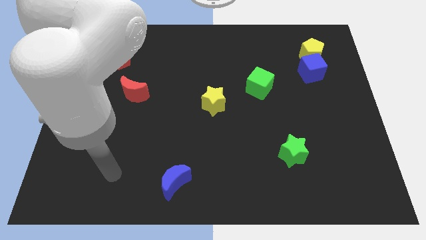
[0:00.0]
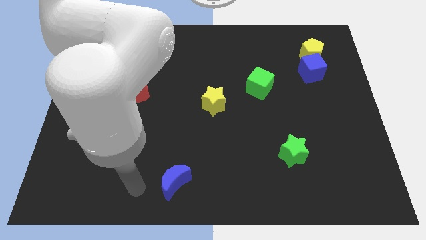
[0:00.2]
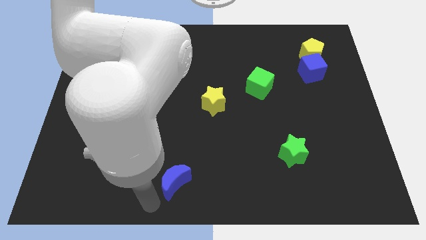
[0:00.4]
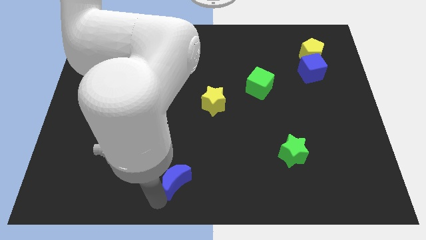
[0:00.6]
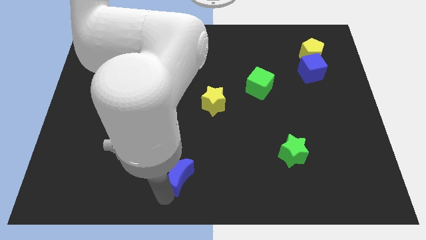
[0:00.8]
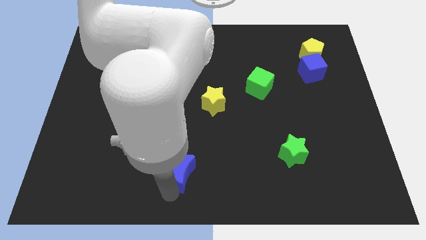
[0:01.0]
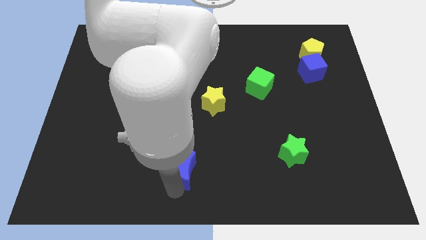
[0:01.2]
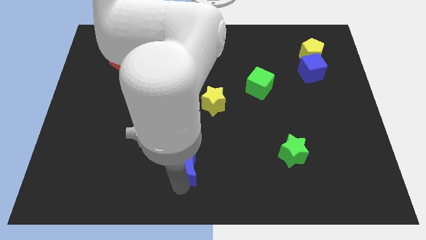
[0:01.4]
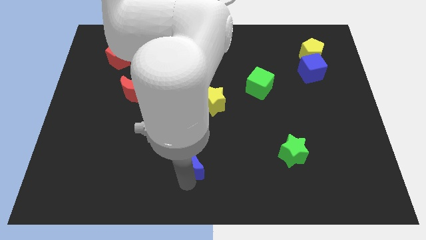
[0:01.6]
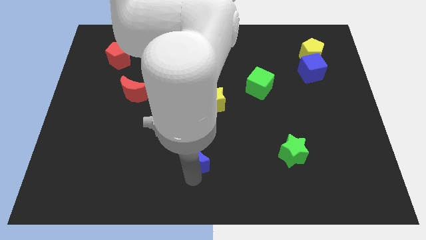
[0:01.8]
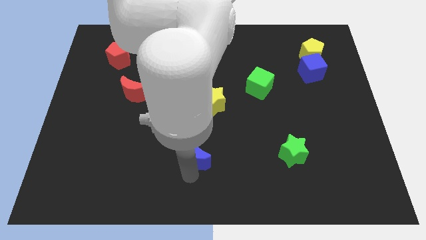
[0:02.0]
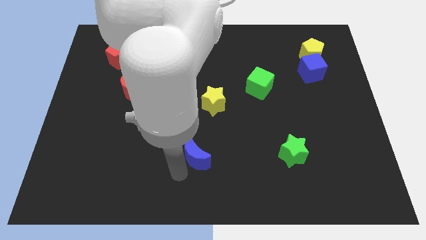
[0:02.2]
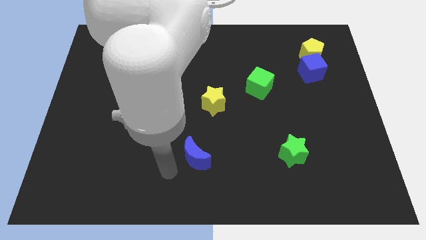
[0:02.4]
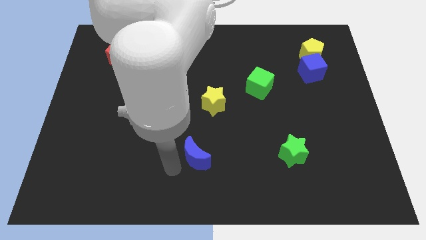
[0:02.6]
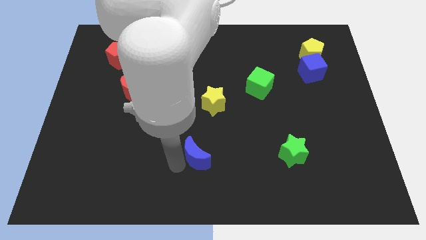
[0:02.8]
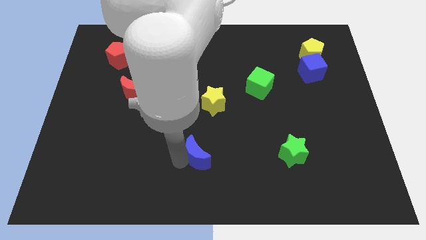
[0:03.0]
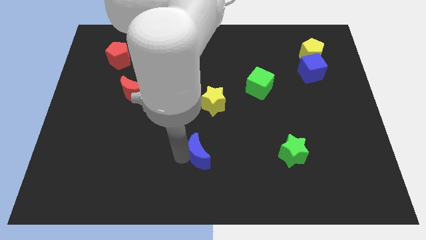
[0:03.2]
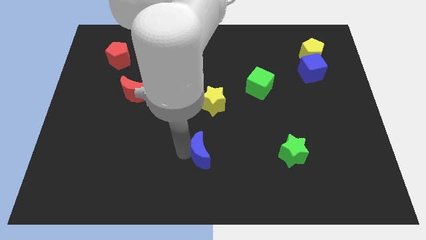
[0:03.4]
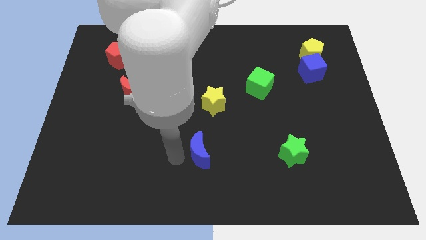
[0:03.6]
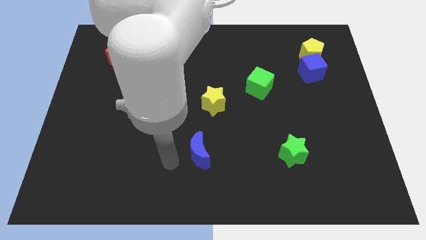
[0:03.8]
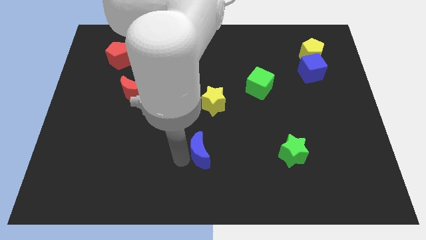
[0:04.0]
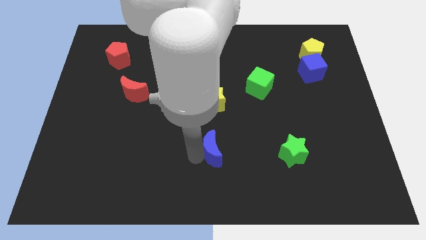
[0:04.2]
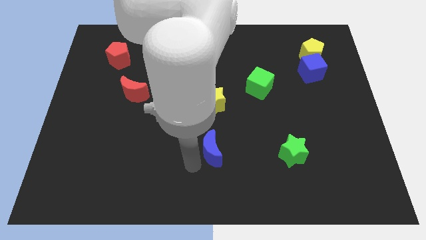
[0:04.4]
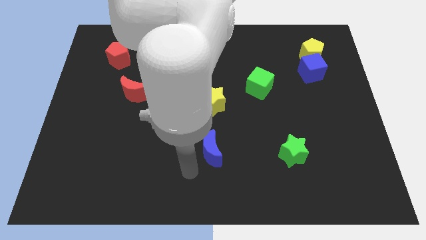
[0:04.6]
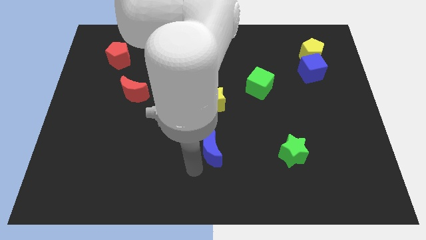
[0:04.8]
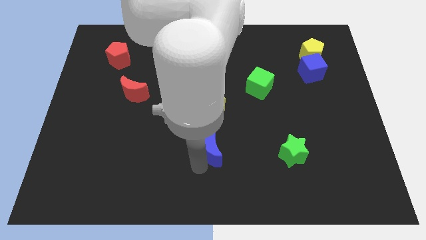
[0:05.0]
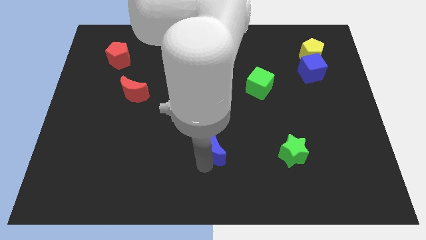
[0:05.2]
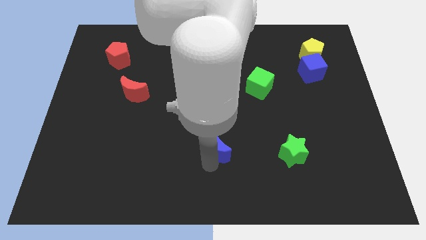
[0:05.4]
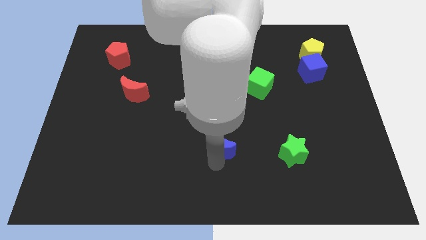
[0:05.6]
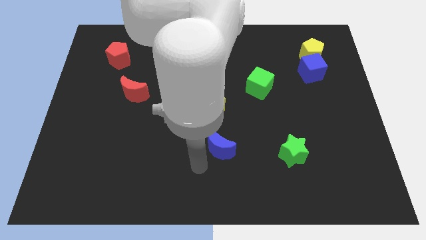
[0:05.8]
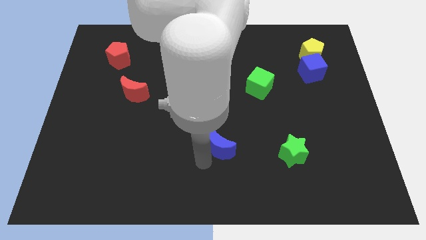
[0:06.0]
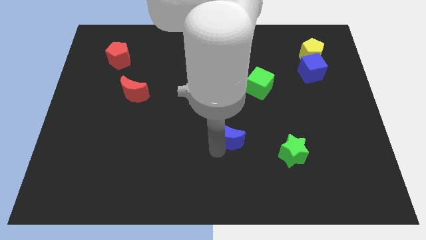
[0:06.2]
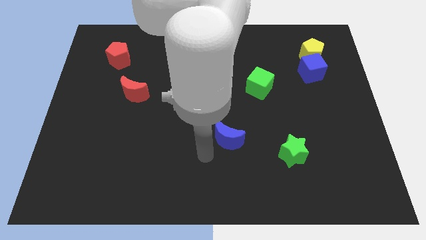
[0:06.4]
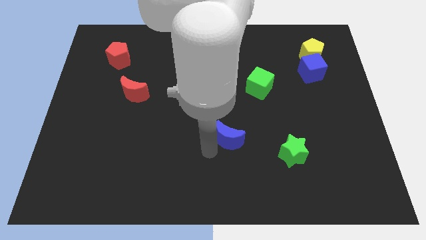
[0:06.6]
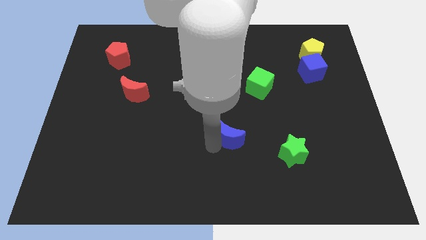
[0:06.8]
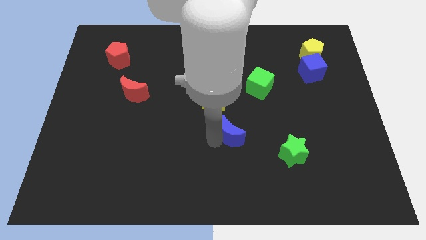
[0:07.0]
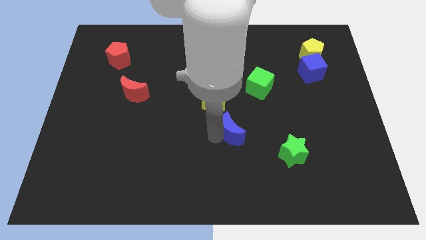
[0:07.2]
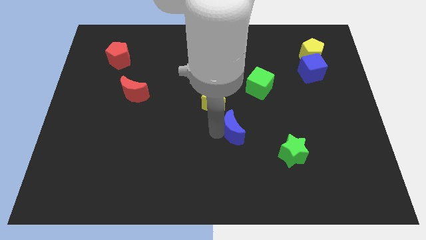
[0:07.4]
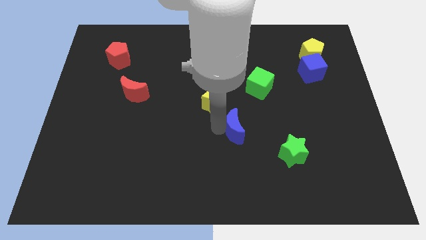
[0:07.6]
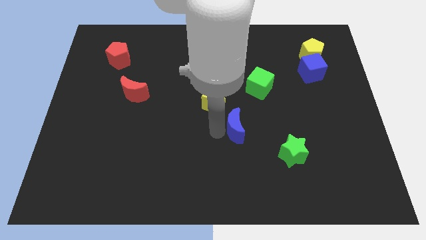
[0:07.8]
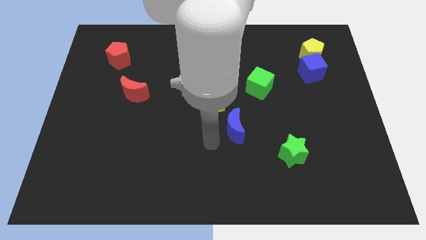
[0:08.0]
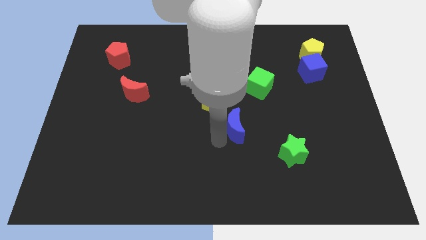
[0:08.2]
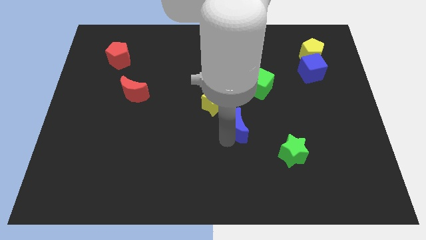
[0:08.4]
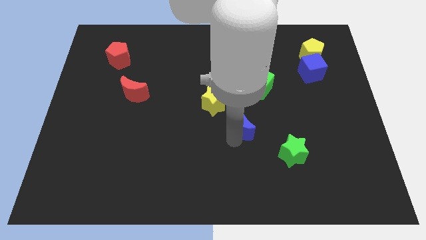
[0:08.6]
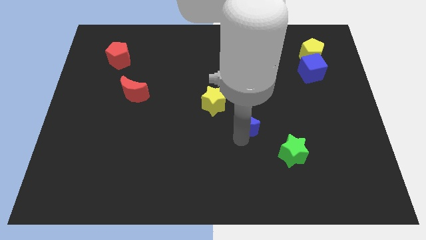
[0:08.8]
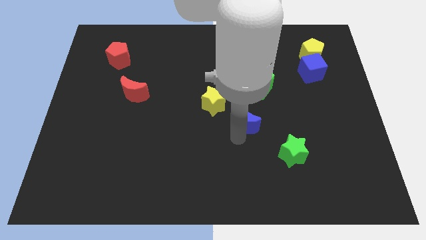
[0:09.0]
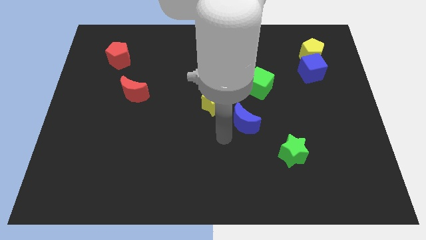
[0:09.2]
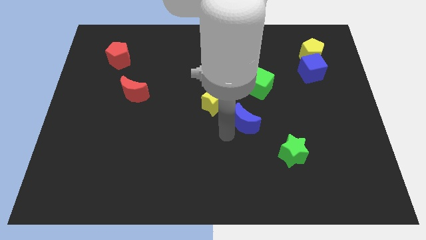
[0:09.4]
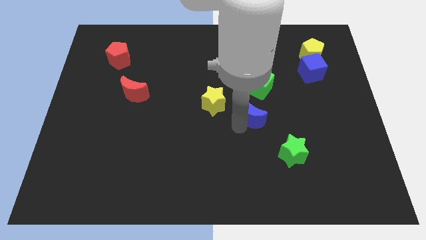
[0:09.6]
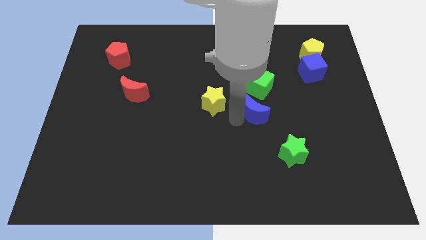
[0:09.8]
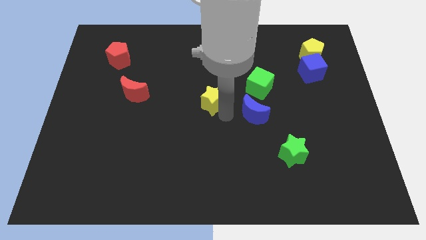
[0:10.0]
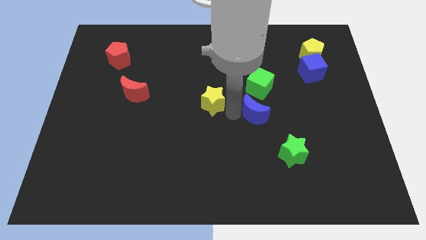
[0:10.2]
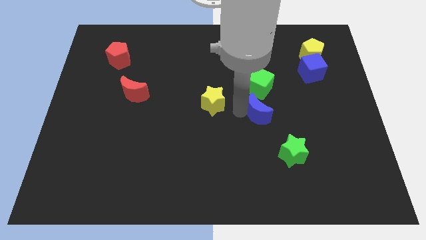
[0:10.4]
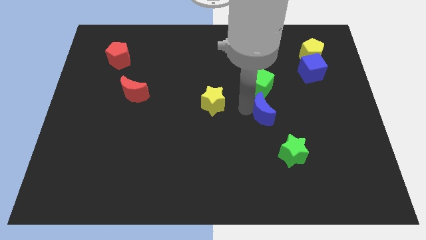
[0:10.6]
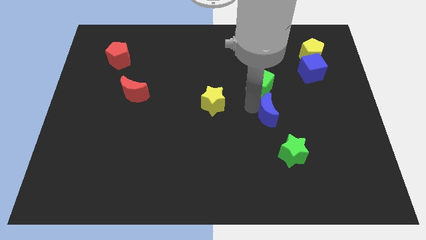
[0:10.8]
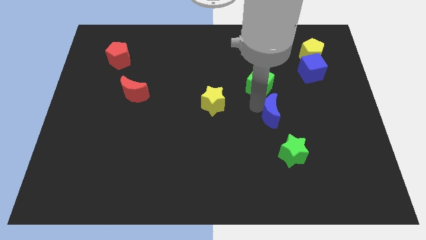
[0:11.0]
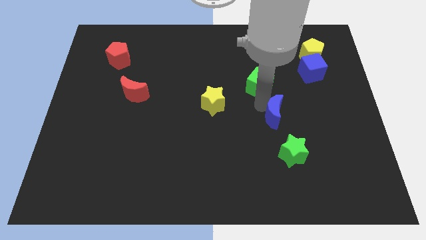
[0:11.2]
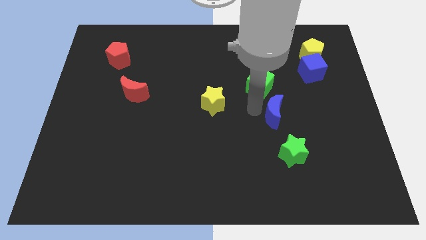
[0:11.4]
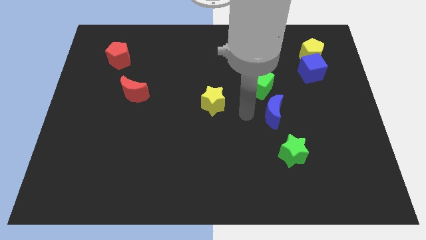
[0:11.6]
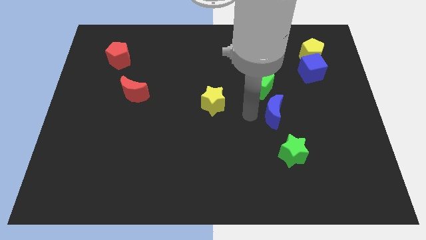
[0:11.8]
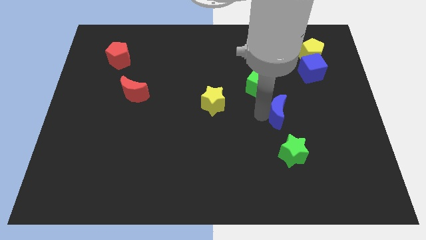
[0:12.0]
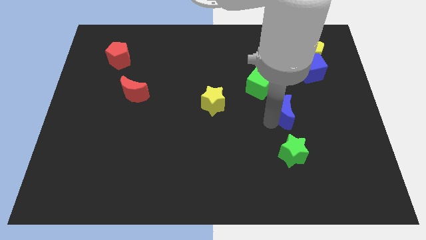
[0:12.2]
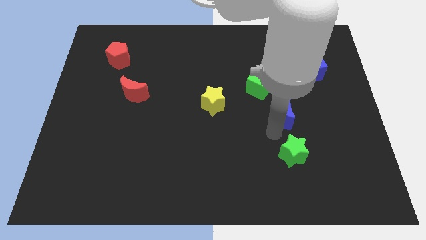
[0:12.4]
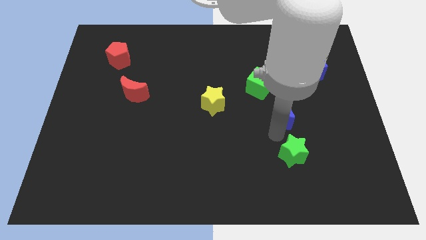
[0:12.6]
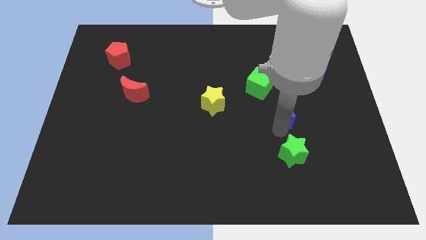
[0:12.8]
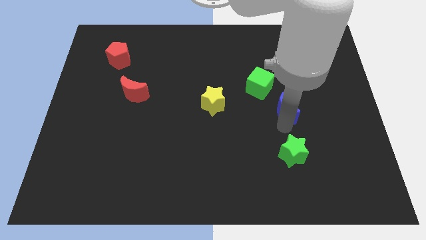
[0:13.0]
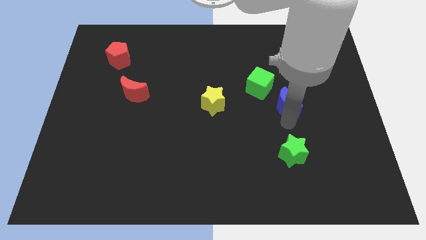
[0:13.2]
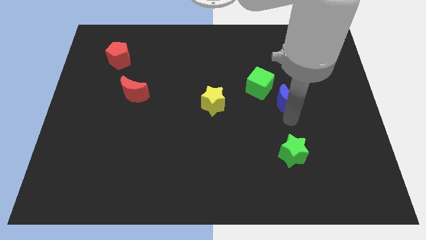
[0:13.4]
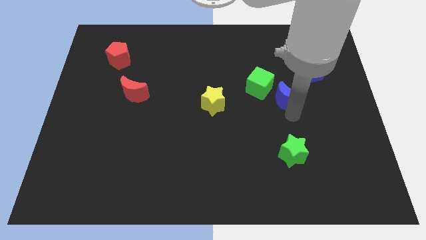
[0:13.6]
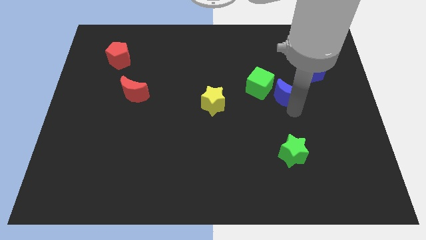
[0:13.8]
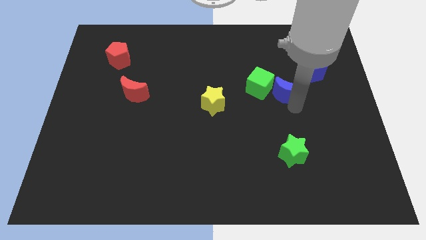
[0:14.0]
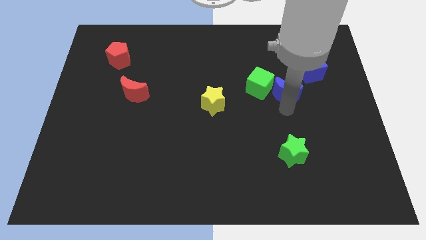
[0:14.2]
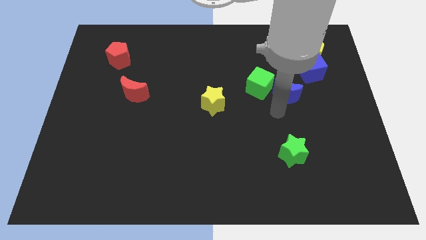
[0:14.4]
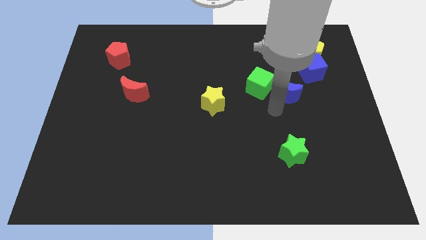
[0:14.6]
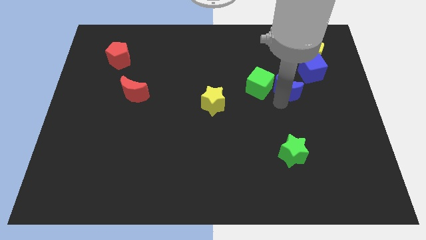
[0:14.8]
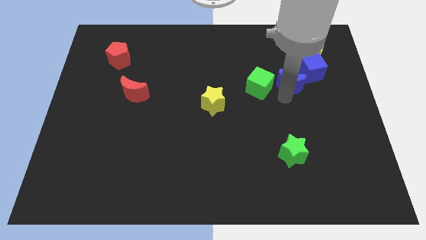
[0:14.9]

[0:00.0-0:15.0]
push the blue moon to the bottom left side of the yellow pentagon
